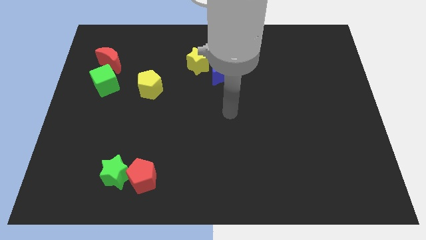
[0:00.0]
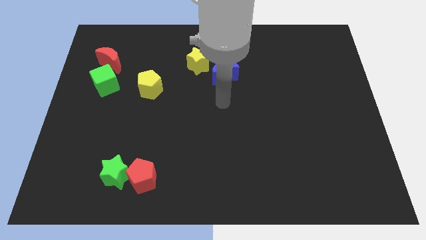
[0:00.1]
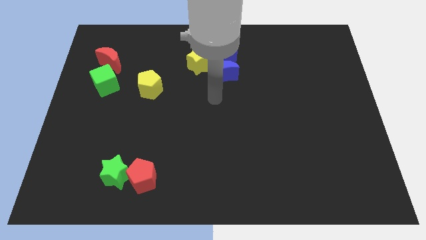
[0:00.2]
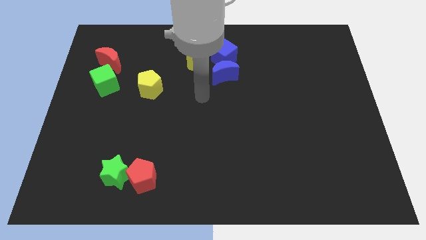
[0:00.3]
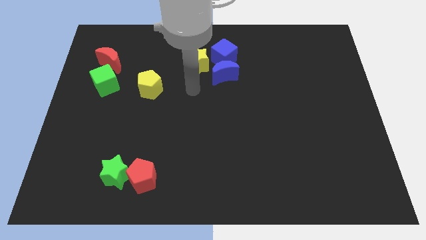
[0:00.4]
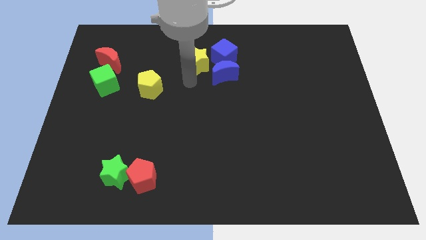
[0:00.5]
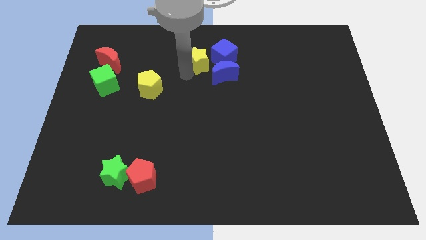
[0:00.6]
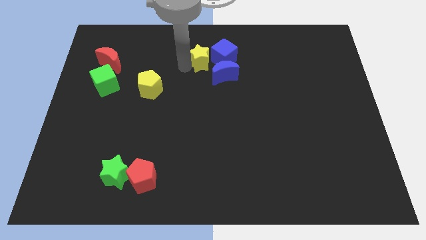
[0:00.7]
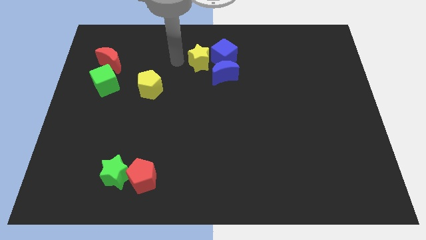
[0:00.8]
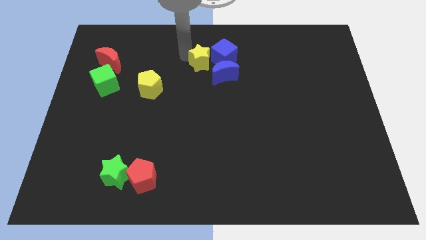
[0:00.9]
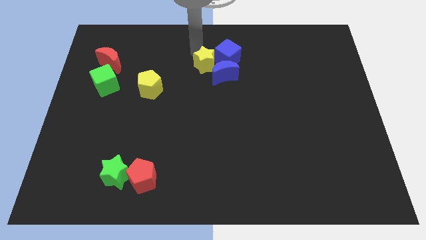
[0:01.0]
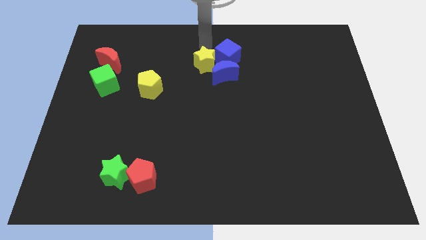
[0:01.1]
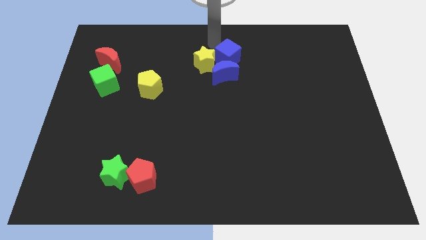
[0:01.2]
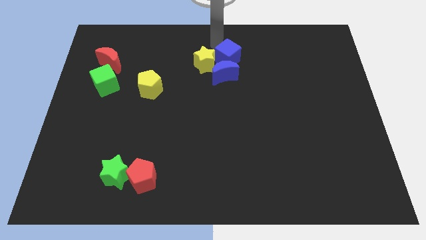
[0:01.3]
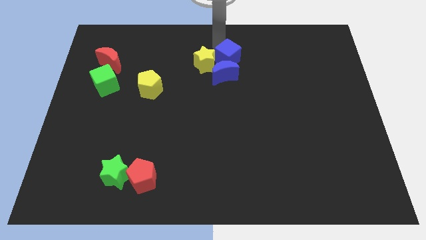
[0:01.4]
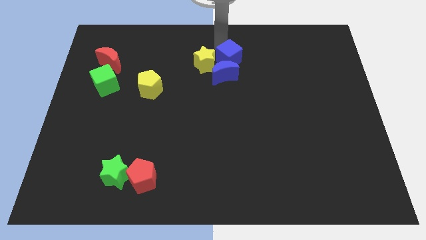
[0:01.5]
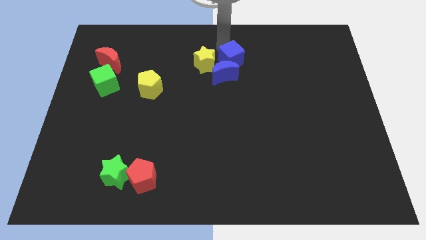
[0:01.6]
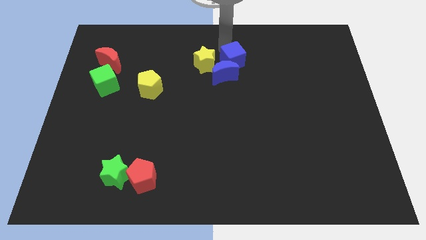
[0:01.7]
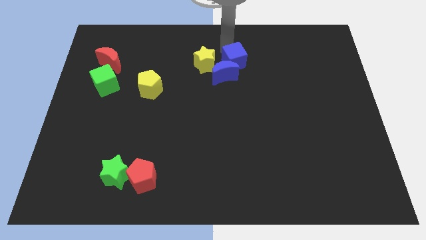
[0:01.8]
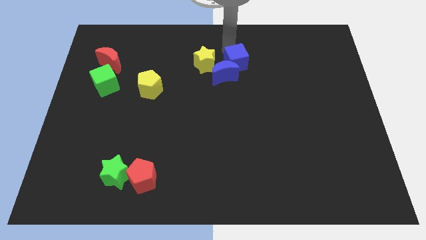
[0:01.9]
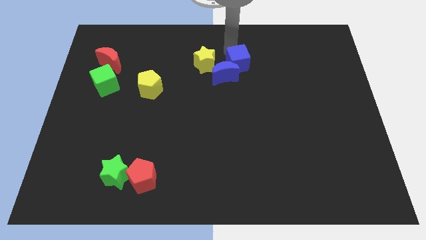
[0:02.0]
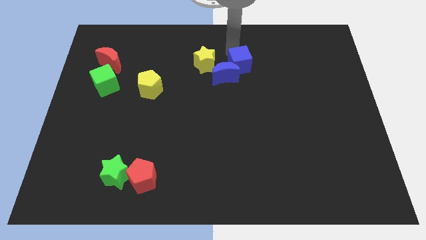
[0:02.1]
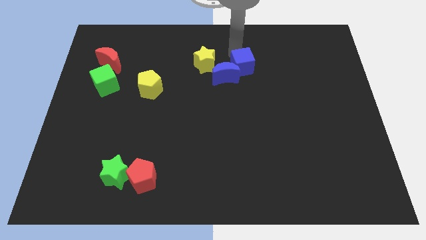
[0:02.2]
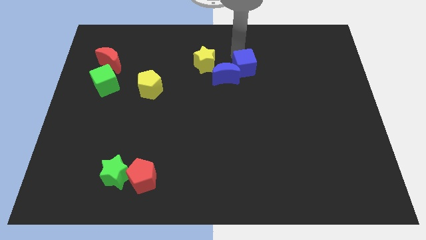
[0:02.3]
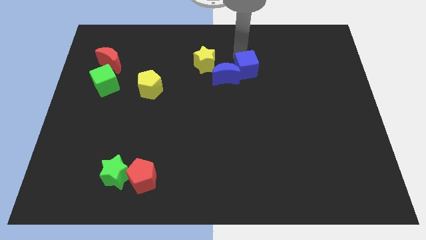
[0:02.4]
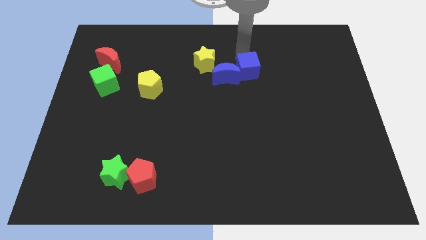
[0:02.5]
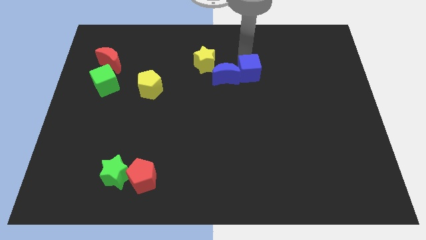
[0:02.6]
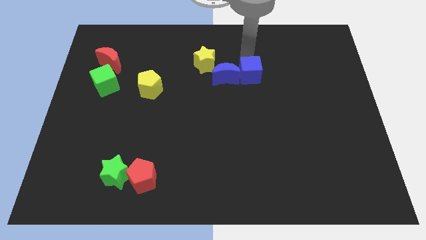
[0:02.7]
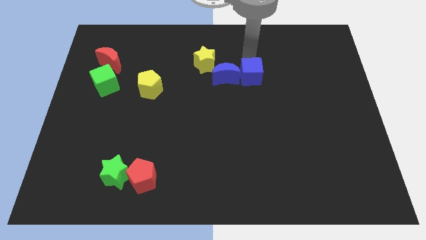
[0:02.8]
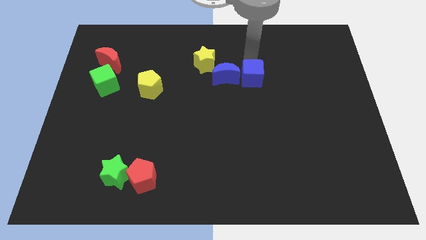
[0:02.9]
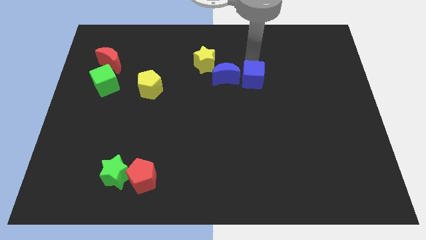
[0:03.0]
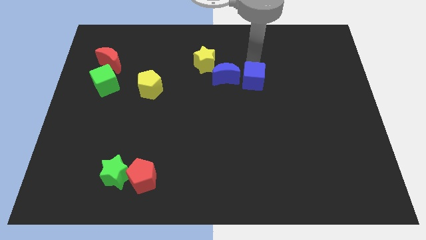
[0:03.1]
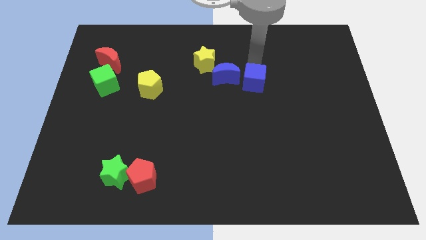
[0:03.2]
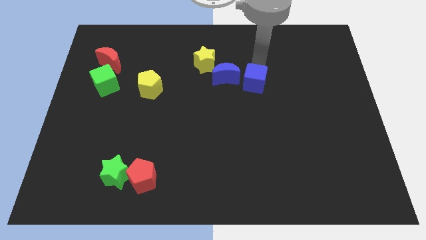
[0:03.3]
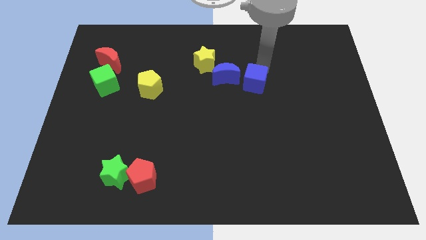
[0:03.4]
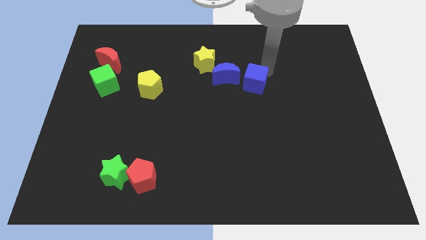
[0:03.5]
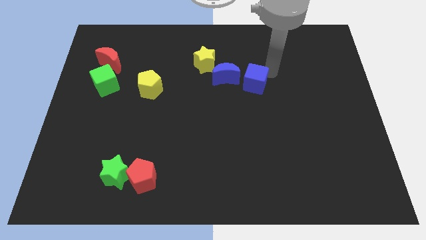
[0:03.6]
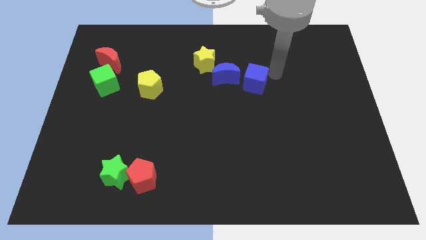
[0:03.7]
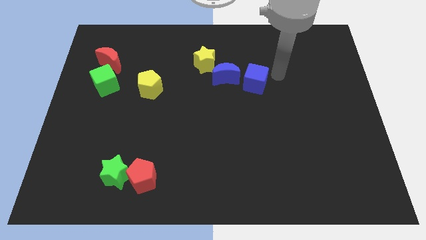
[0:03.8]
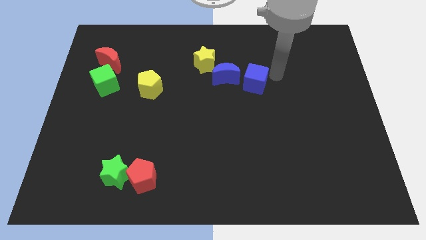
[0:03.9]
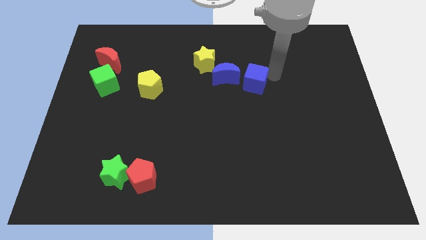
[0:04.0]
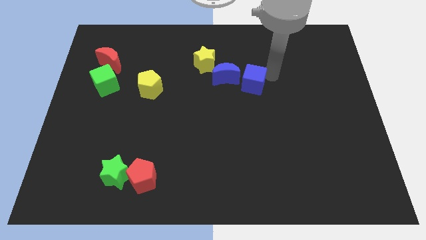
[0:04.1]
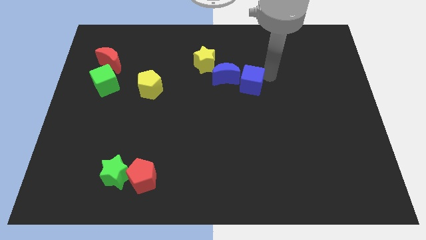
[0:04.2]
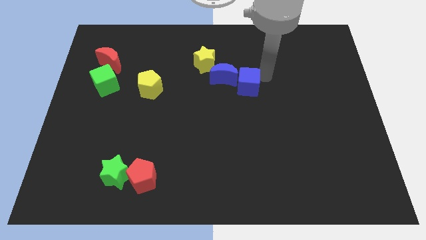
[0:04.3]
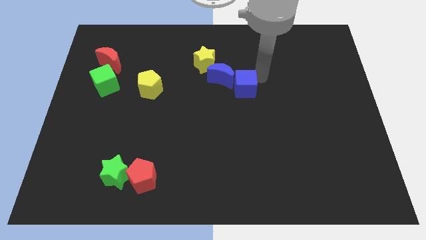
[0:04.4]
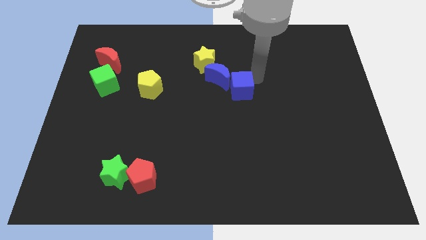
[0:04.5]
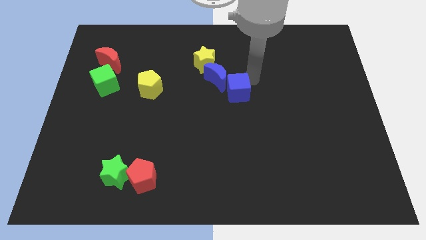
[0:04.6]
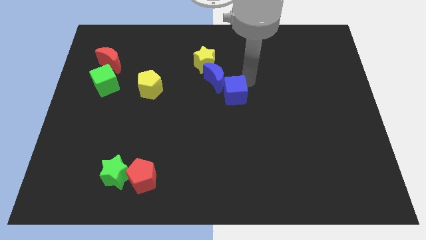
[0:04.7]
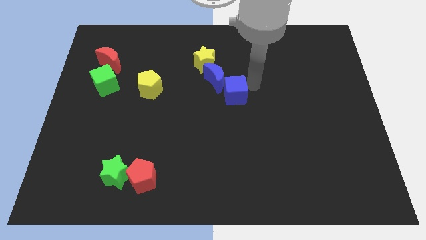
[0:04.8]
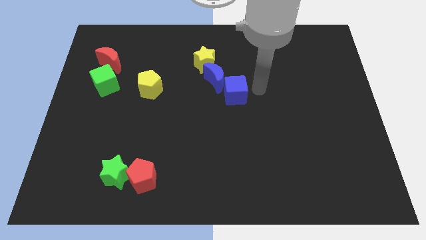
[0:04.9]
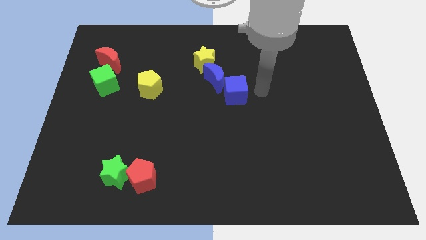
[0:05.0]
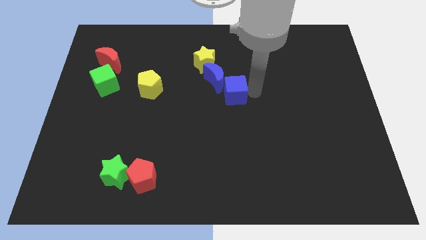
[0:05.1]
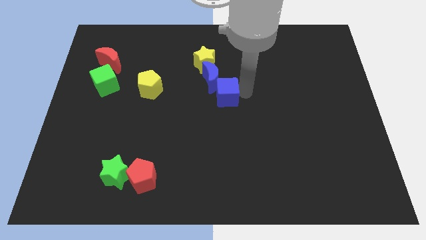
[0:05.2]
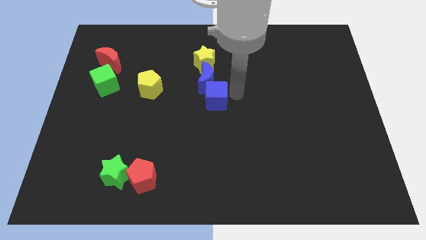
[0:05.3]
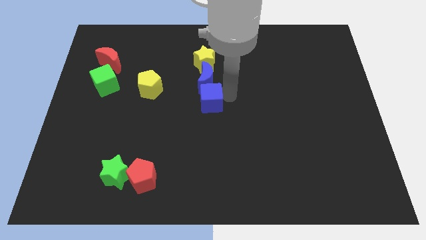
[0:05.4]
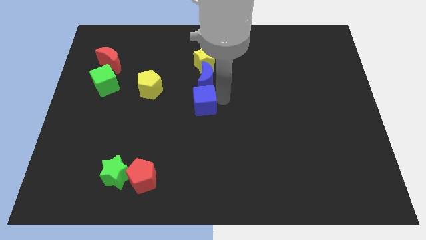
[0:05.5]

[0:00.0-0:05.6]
put the blue cube to the bottom left of the blue moon

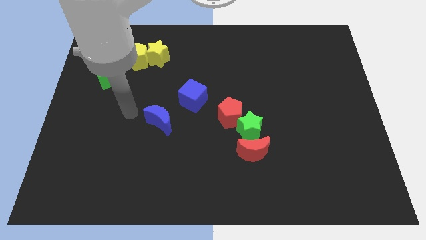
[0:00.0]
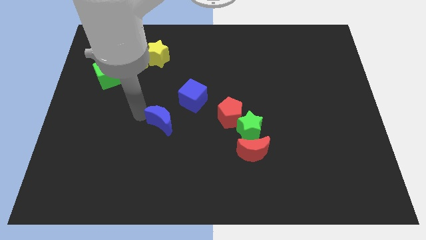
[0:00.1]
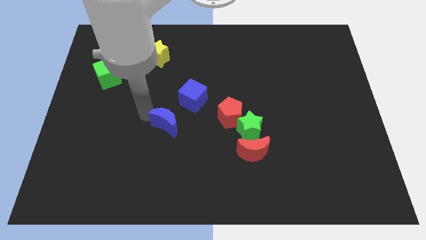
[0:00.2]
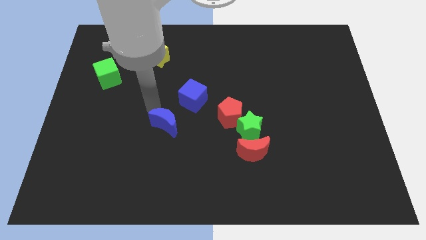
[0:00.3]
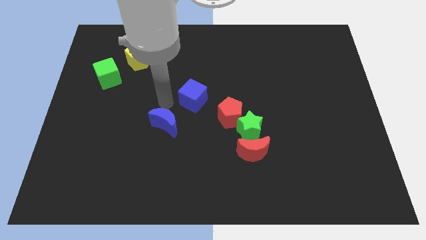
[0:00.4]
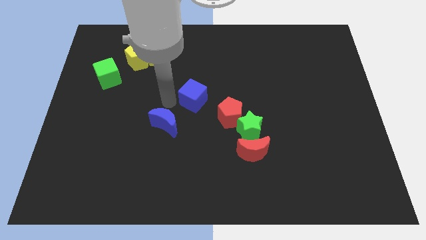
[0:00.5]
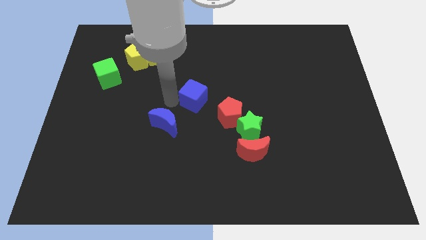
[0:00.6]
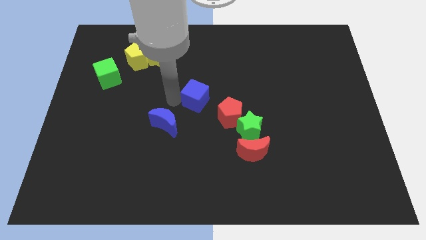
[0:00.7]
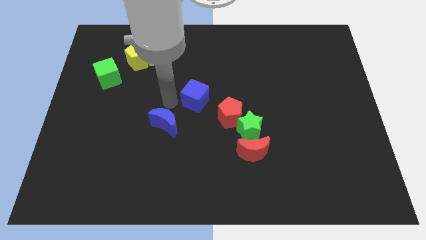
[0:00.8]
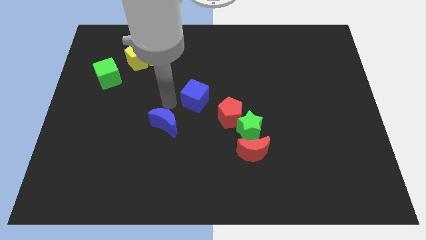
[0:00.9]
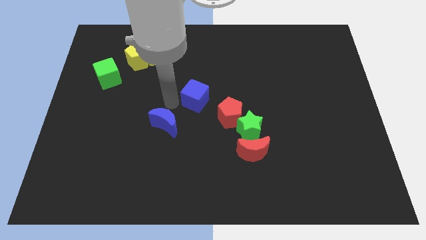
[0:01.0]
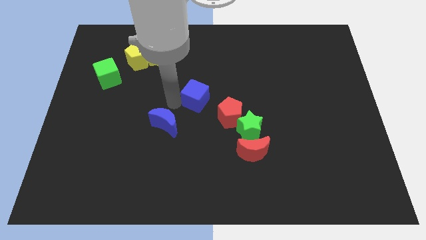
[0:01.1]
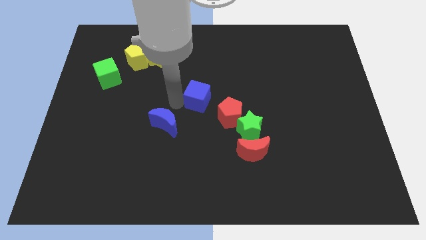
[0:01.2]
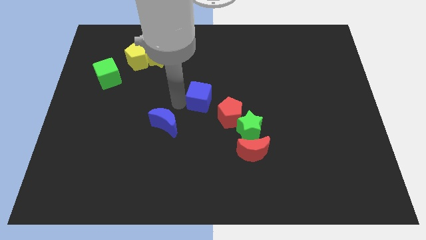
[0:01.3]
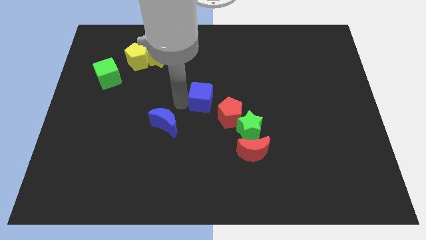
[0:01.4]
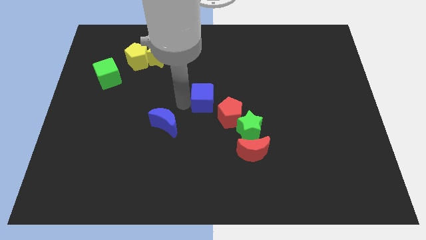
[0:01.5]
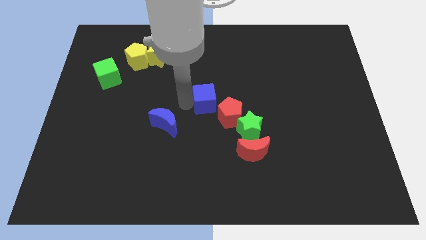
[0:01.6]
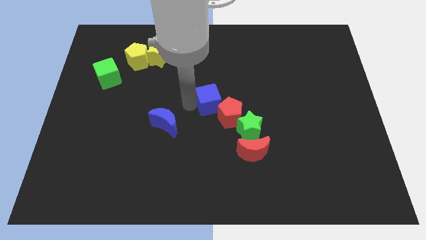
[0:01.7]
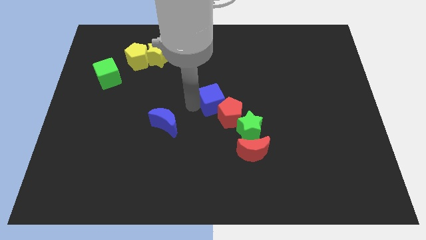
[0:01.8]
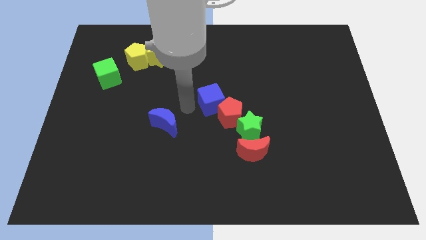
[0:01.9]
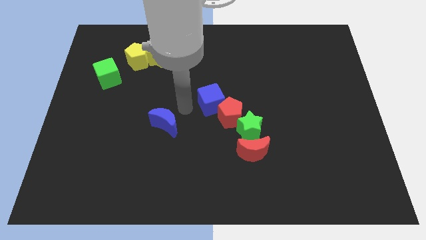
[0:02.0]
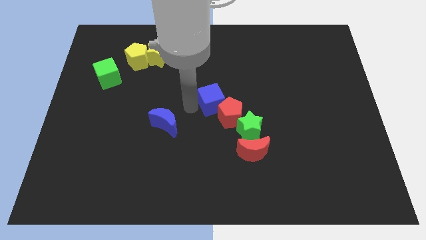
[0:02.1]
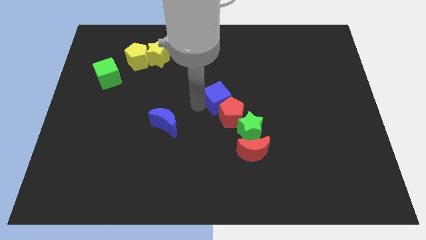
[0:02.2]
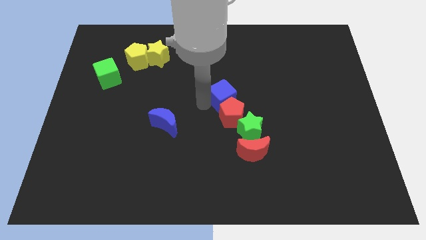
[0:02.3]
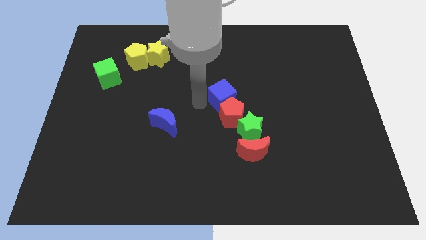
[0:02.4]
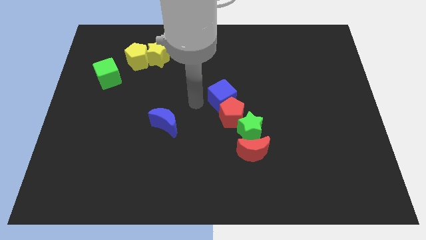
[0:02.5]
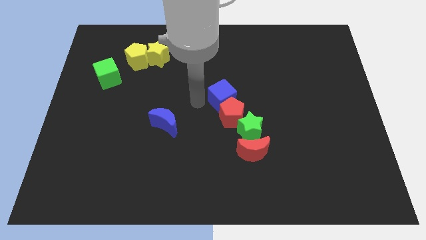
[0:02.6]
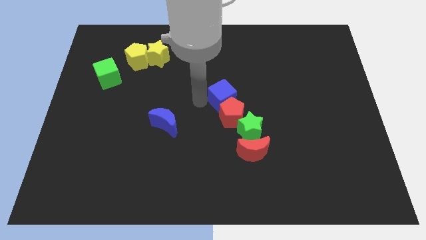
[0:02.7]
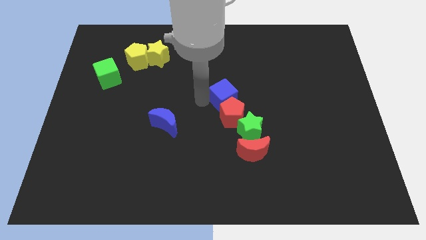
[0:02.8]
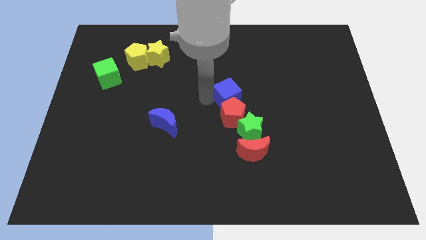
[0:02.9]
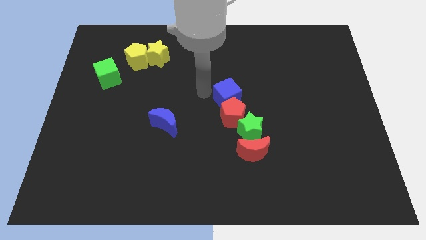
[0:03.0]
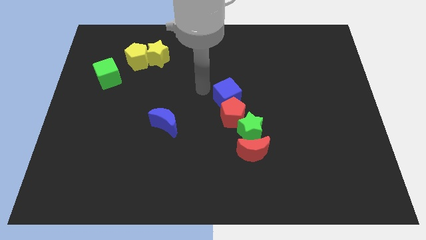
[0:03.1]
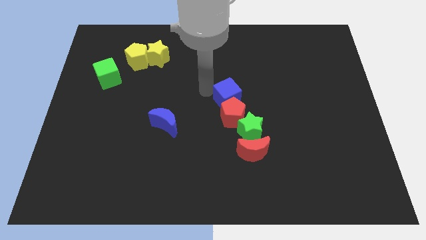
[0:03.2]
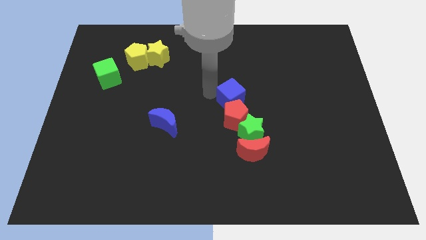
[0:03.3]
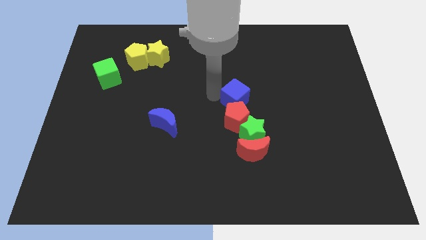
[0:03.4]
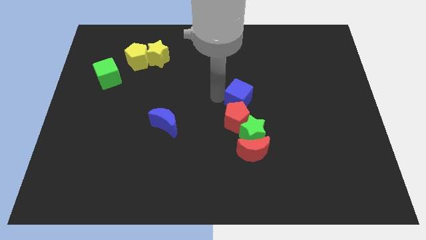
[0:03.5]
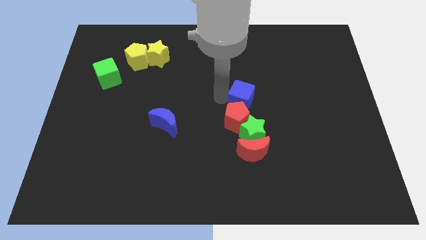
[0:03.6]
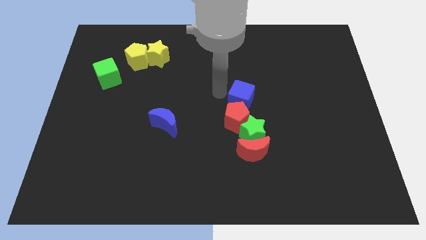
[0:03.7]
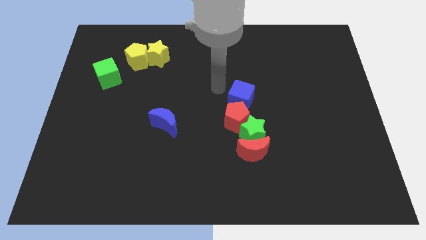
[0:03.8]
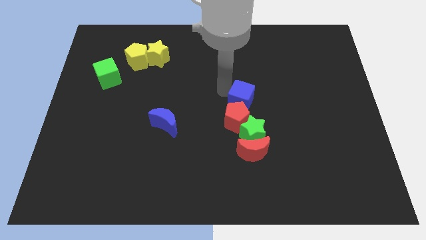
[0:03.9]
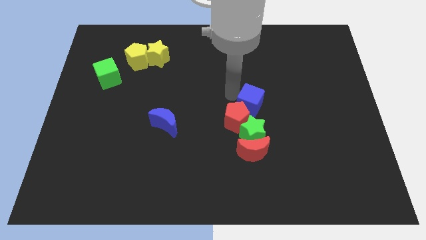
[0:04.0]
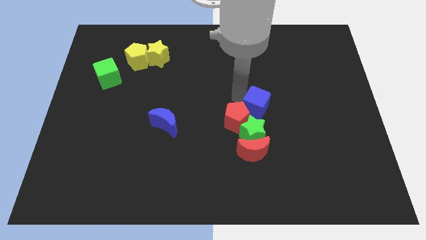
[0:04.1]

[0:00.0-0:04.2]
put the blue cube diagonally up and to the right of the green star
